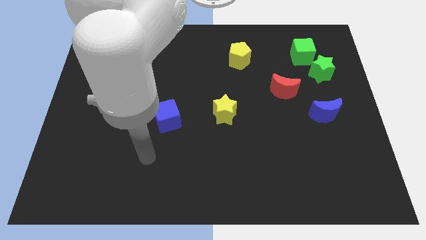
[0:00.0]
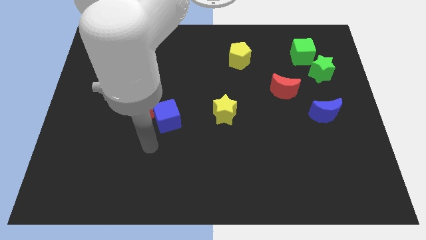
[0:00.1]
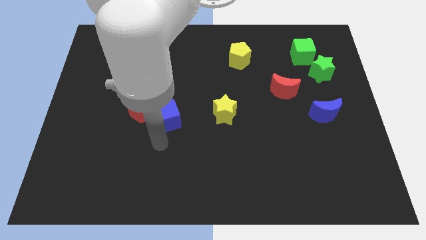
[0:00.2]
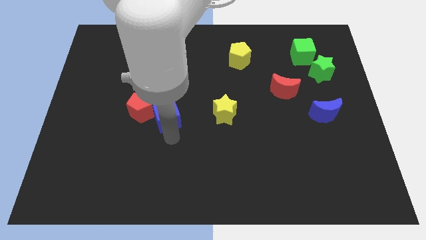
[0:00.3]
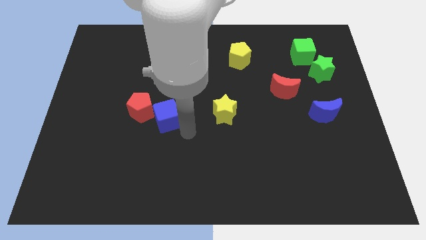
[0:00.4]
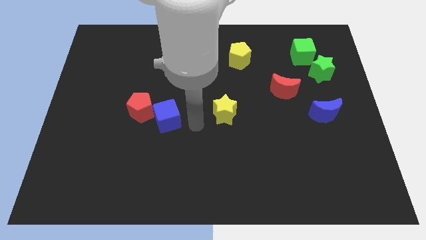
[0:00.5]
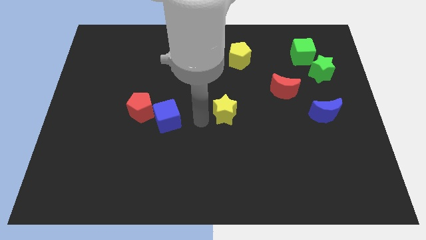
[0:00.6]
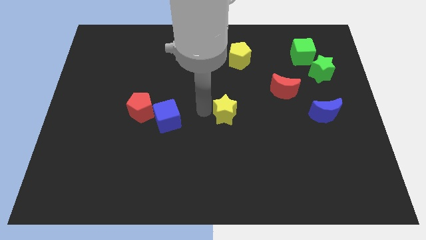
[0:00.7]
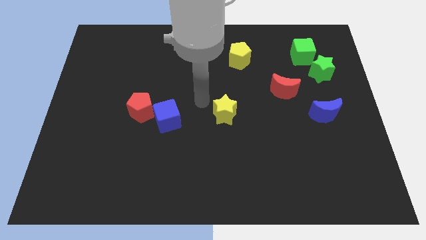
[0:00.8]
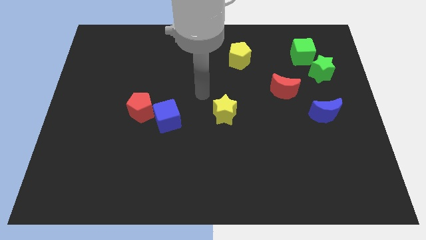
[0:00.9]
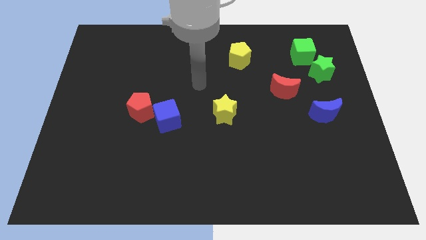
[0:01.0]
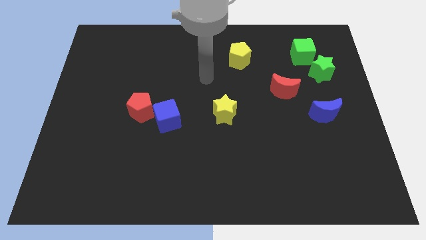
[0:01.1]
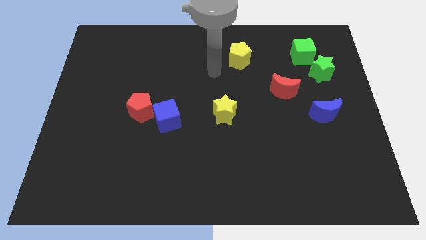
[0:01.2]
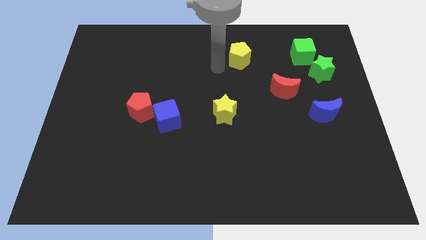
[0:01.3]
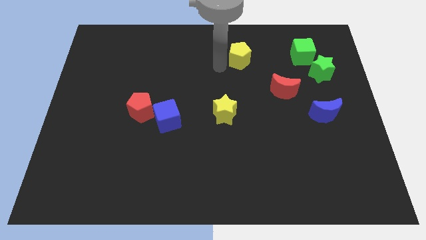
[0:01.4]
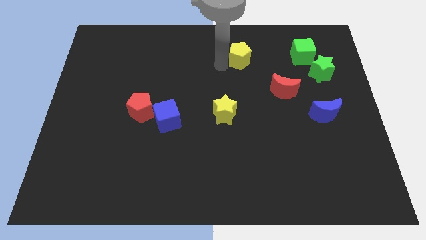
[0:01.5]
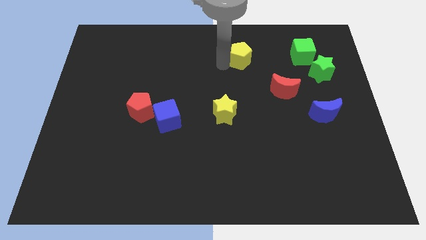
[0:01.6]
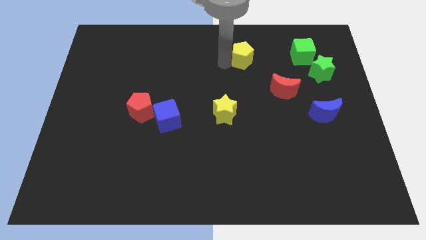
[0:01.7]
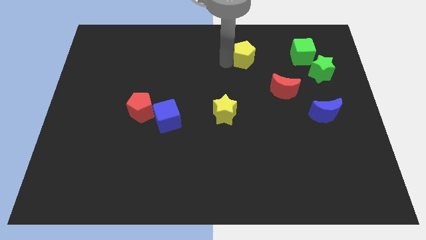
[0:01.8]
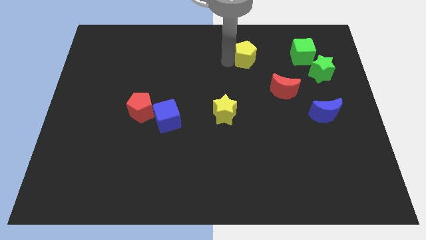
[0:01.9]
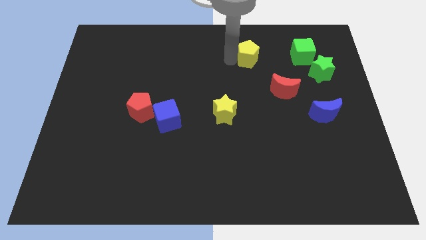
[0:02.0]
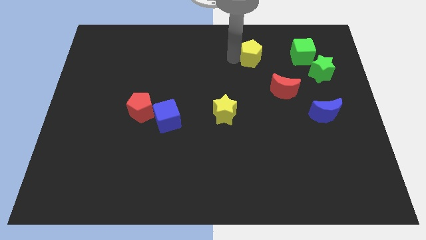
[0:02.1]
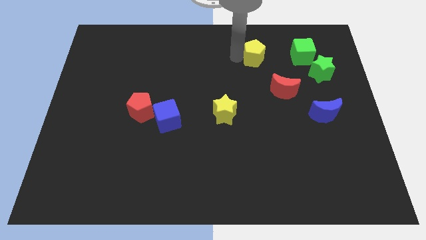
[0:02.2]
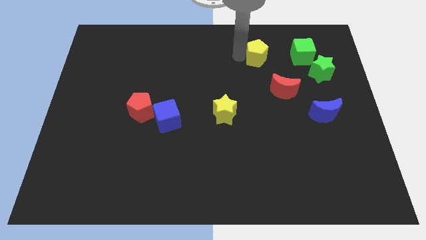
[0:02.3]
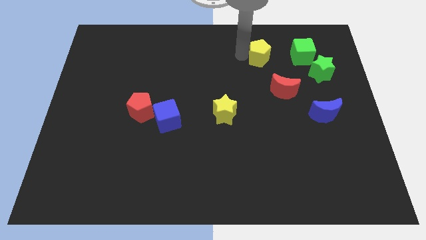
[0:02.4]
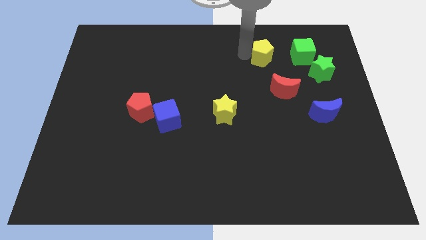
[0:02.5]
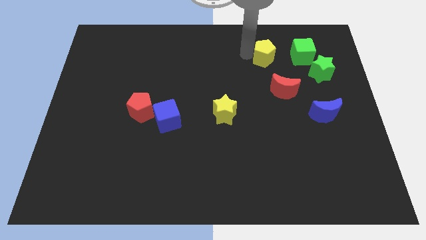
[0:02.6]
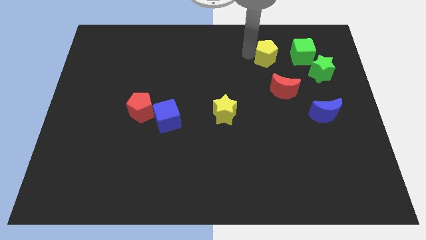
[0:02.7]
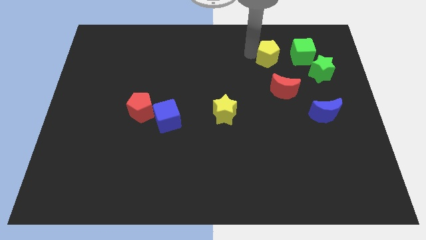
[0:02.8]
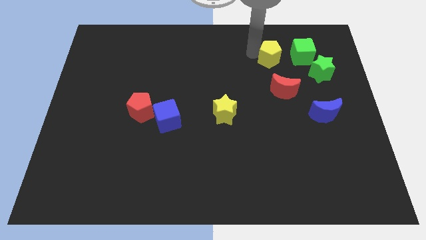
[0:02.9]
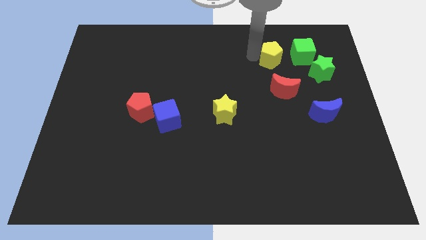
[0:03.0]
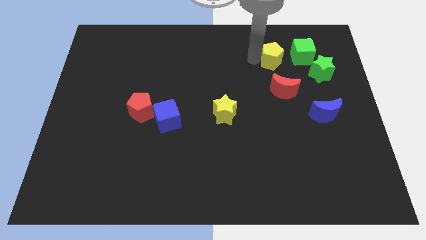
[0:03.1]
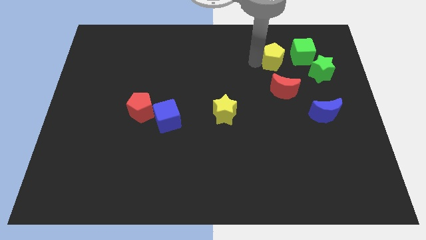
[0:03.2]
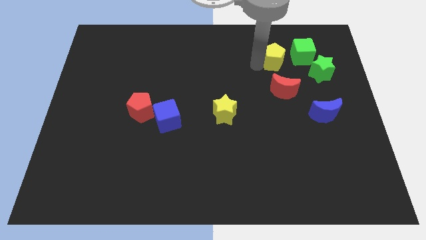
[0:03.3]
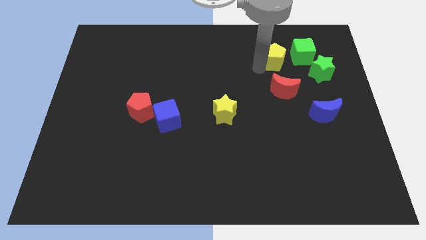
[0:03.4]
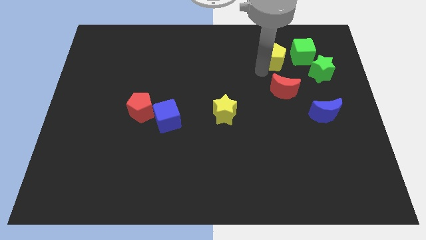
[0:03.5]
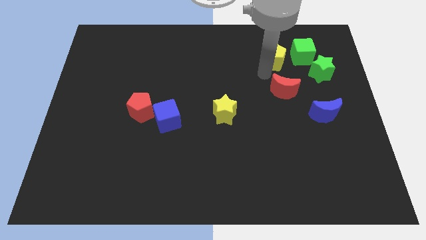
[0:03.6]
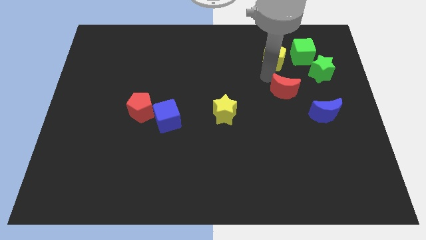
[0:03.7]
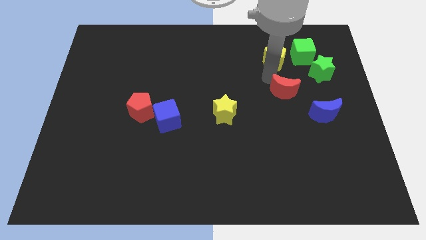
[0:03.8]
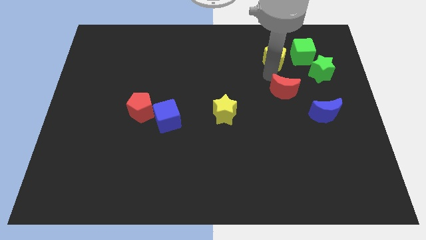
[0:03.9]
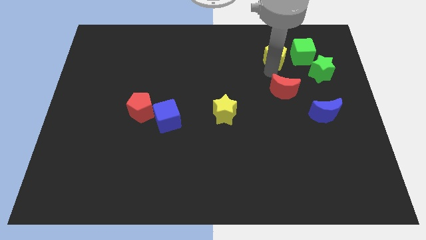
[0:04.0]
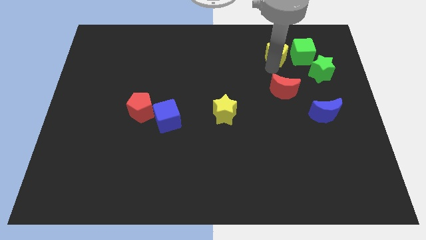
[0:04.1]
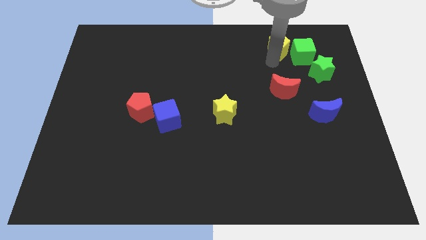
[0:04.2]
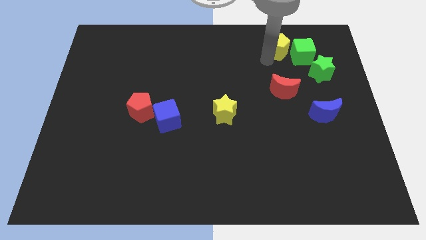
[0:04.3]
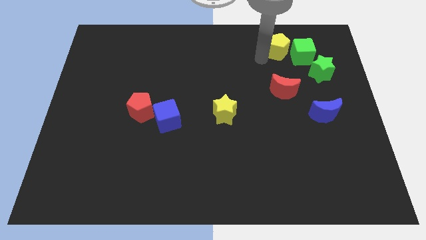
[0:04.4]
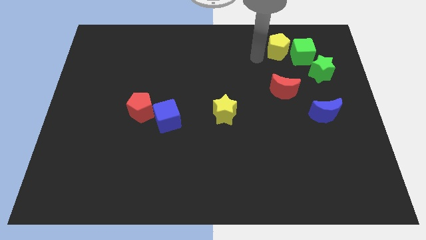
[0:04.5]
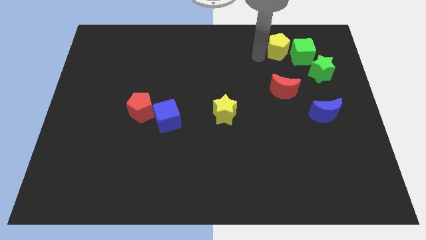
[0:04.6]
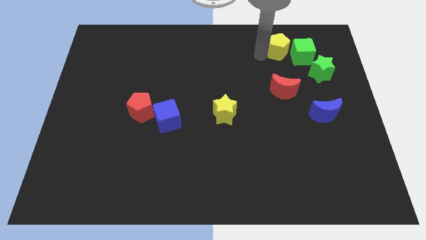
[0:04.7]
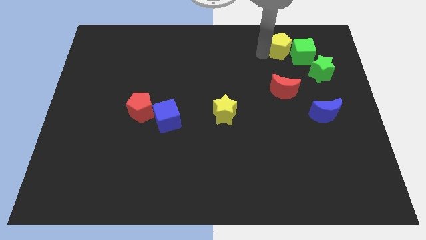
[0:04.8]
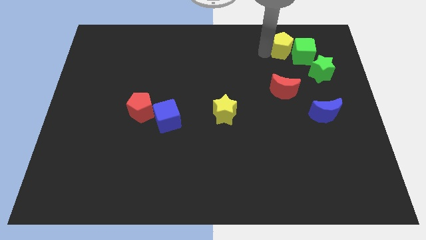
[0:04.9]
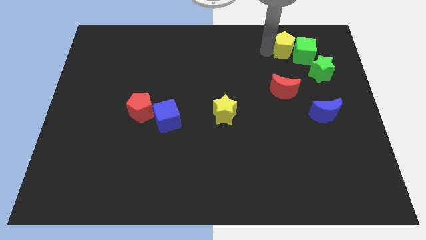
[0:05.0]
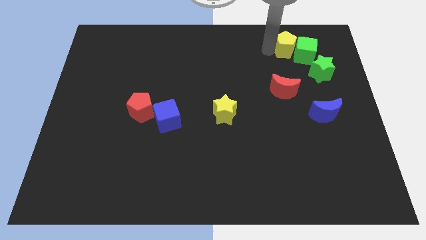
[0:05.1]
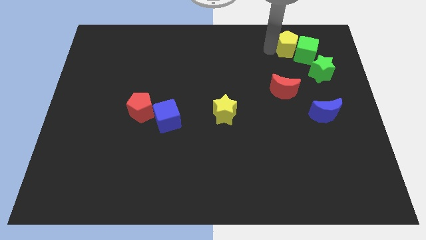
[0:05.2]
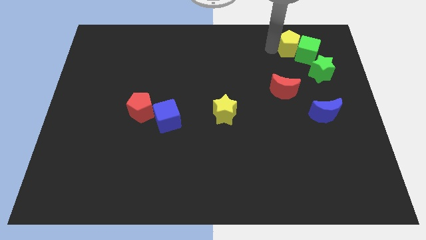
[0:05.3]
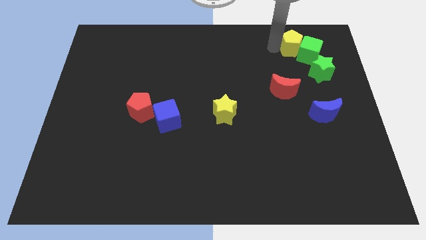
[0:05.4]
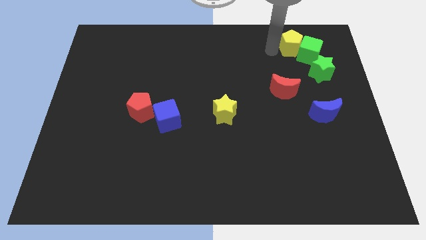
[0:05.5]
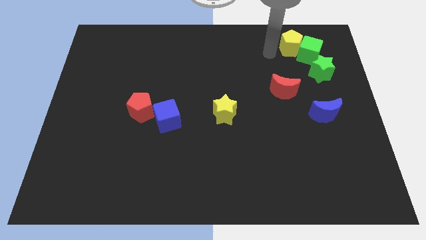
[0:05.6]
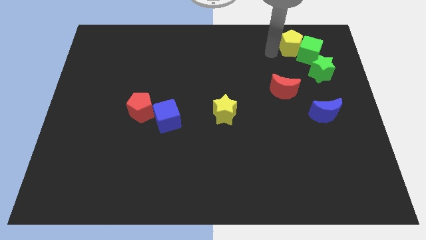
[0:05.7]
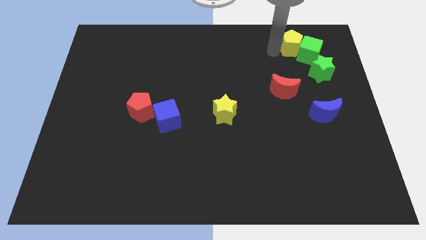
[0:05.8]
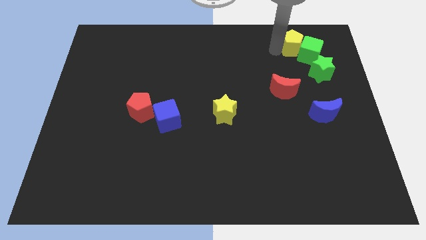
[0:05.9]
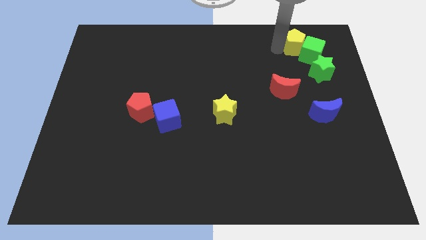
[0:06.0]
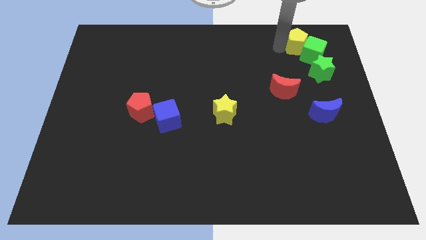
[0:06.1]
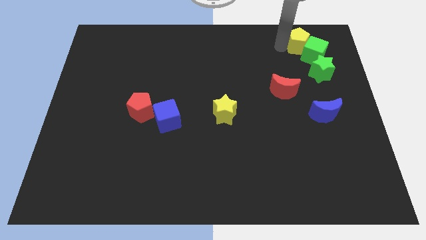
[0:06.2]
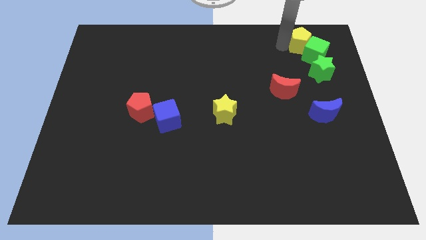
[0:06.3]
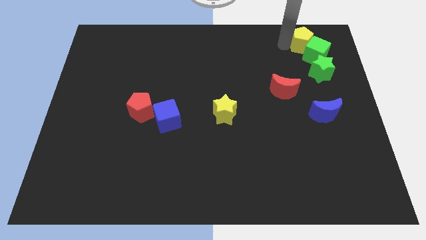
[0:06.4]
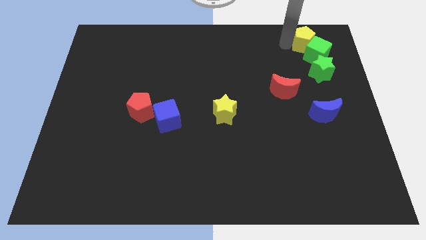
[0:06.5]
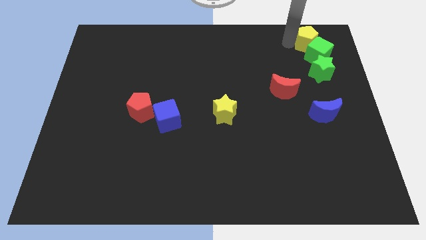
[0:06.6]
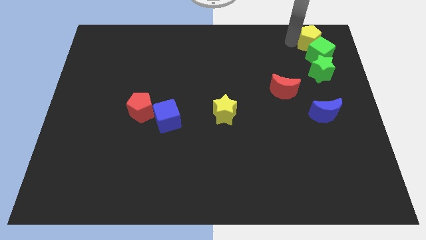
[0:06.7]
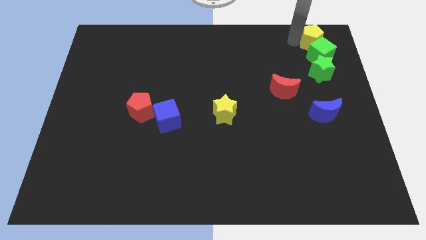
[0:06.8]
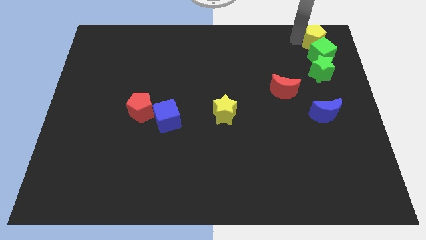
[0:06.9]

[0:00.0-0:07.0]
put the yellow pentagon to the top right of the board
